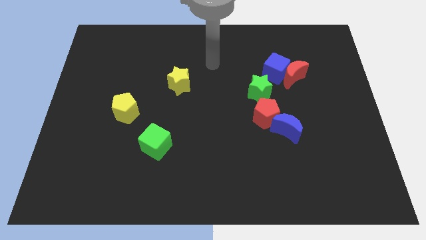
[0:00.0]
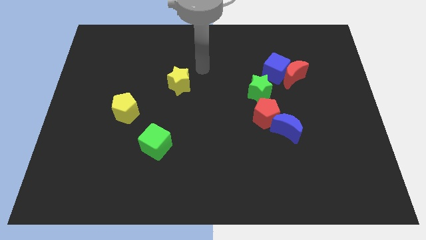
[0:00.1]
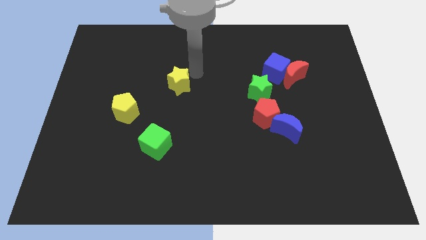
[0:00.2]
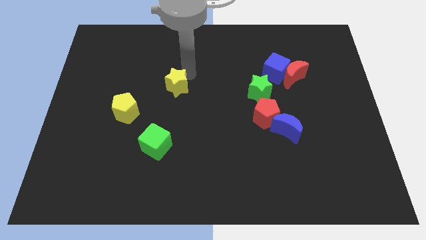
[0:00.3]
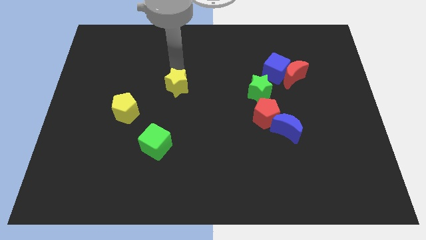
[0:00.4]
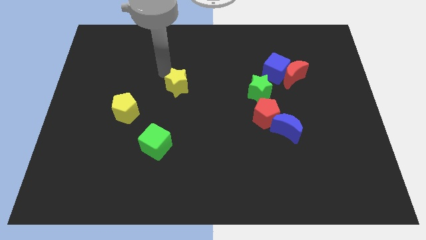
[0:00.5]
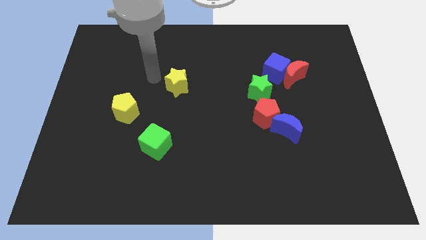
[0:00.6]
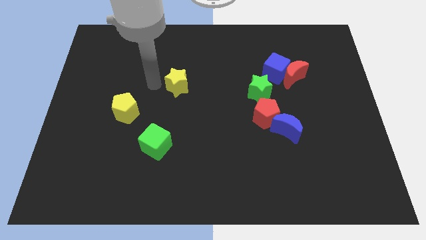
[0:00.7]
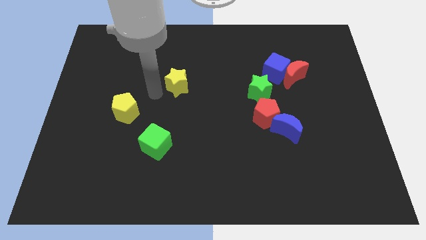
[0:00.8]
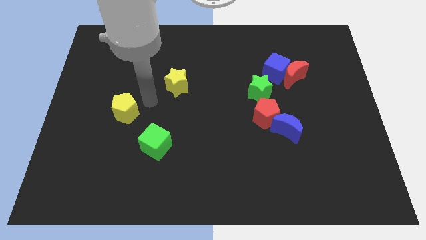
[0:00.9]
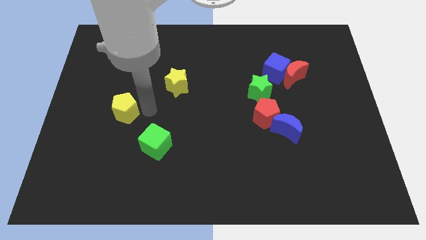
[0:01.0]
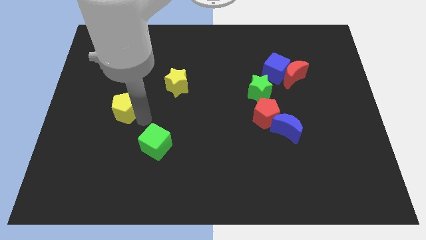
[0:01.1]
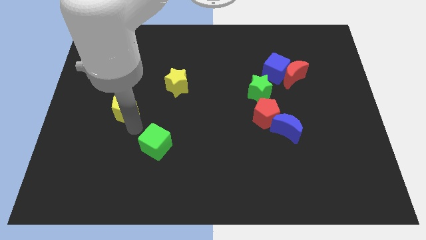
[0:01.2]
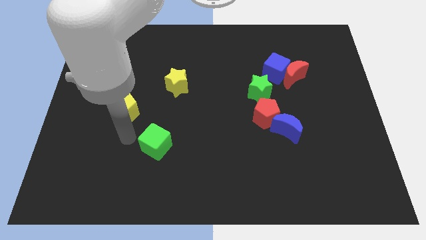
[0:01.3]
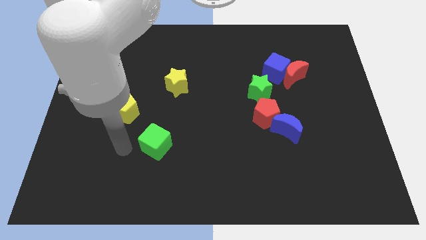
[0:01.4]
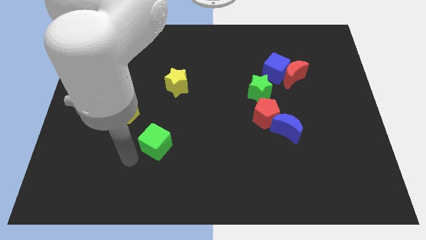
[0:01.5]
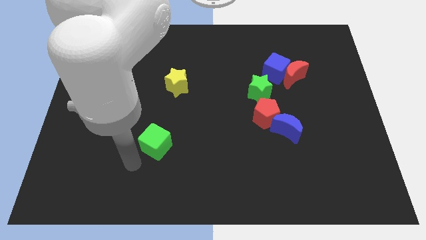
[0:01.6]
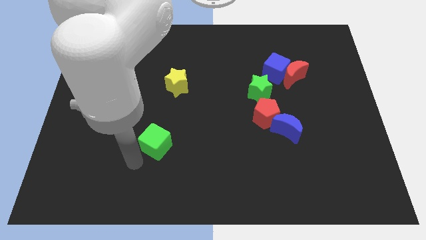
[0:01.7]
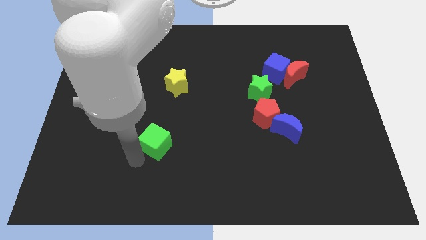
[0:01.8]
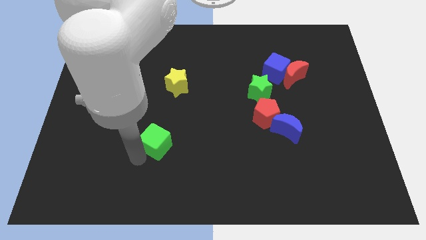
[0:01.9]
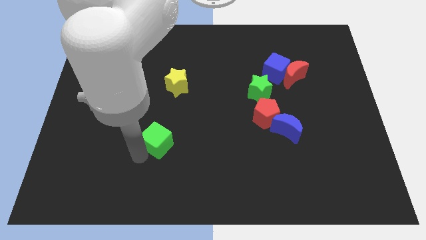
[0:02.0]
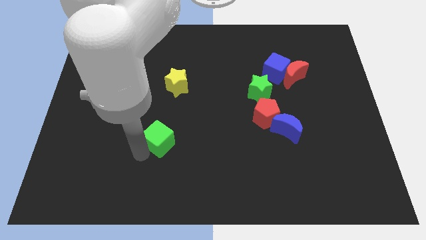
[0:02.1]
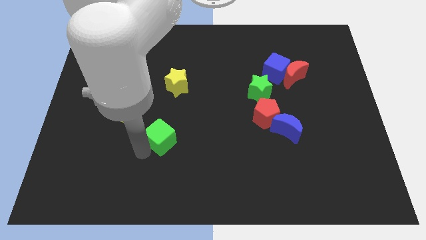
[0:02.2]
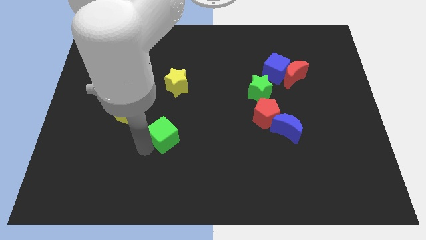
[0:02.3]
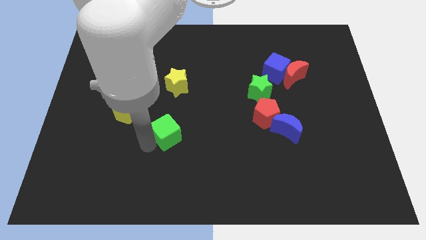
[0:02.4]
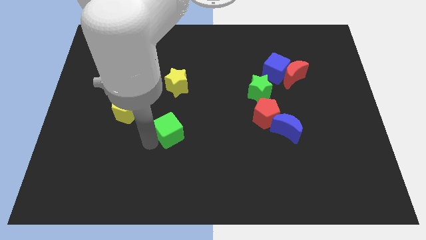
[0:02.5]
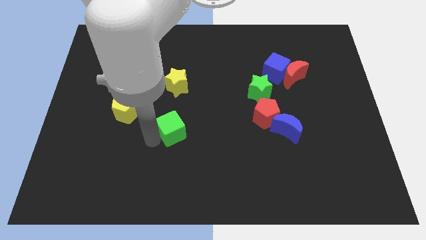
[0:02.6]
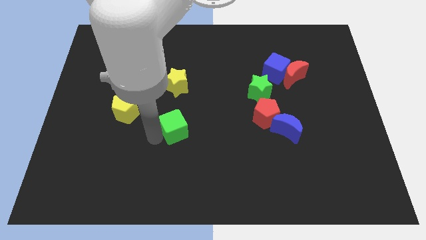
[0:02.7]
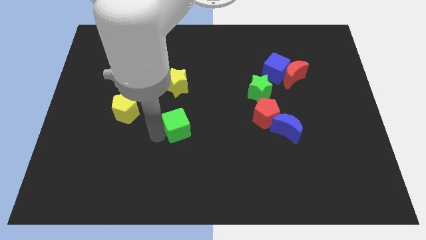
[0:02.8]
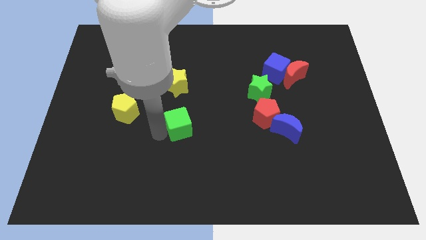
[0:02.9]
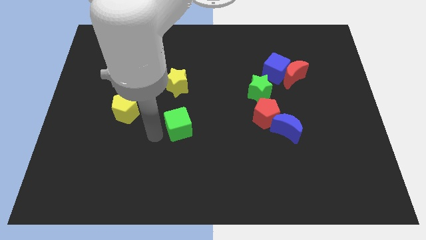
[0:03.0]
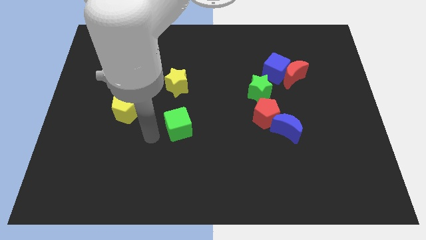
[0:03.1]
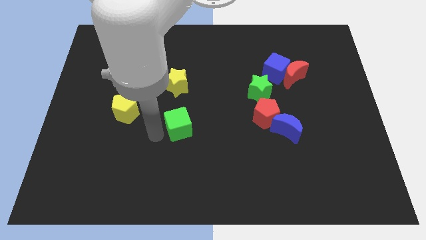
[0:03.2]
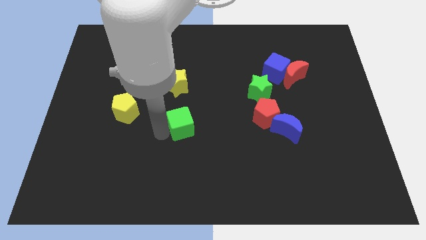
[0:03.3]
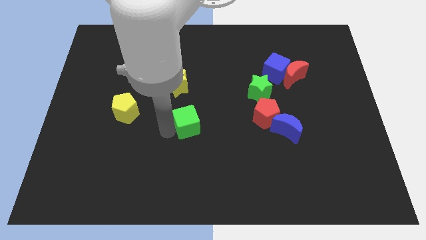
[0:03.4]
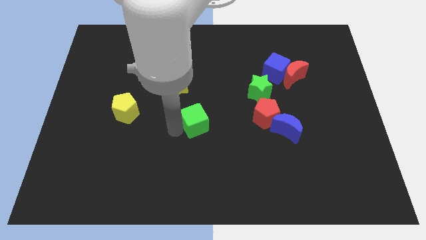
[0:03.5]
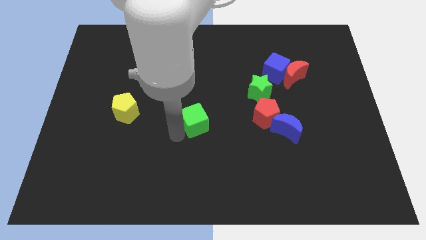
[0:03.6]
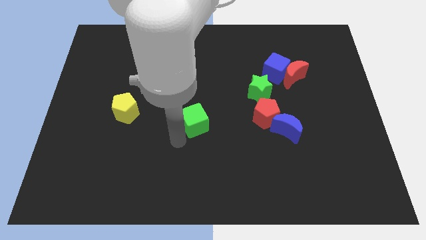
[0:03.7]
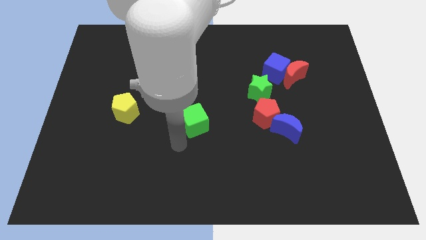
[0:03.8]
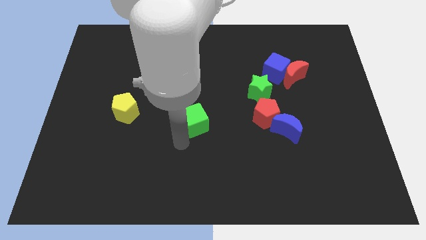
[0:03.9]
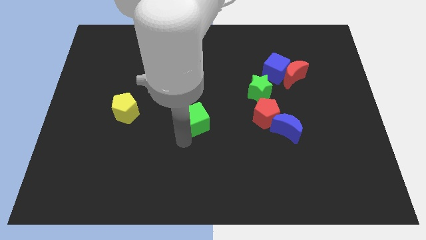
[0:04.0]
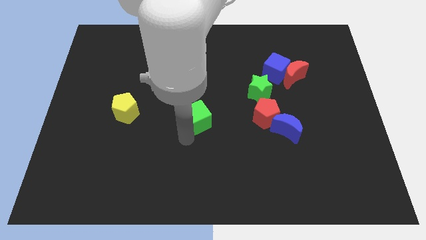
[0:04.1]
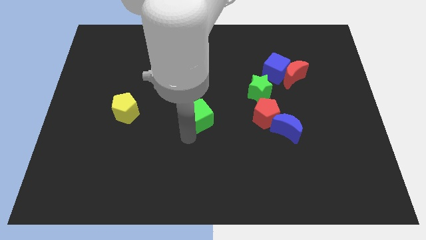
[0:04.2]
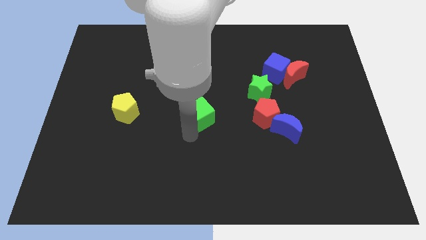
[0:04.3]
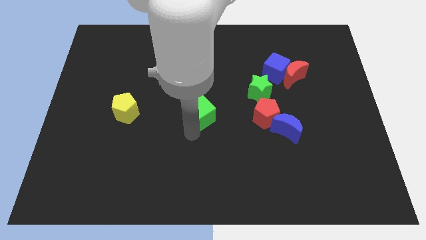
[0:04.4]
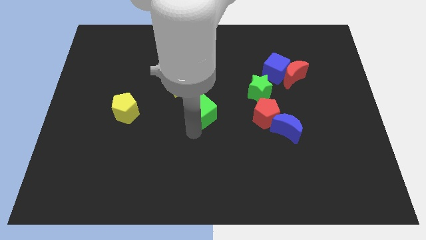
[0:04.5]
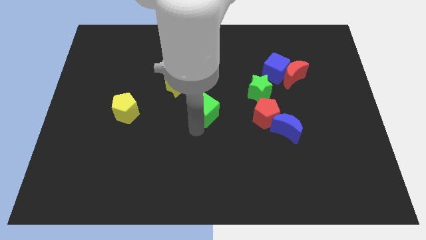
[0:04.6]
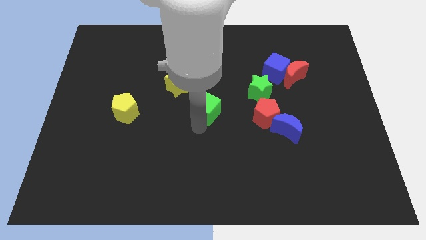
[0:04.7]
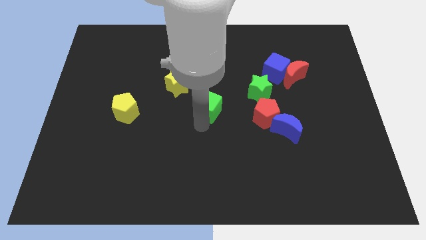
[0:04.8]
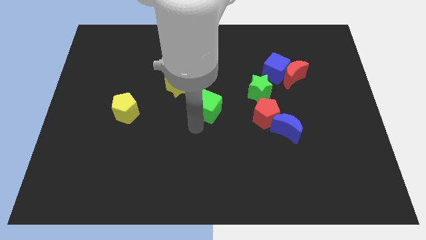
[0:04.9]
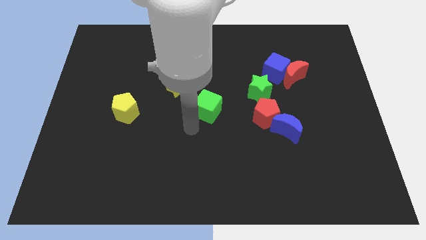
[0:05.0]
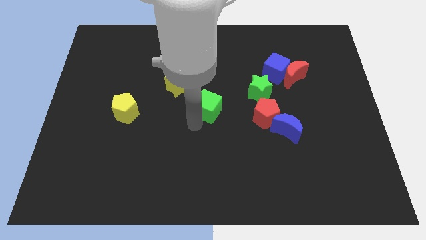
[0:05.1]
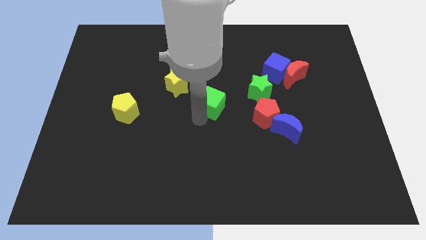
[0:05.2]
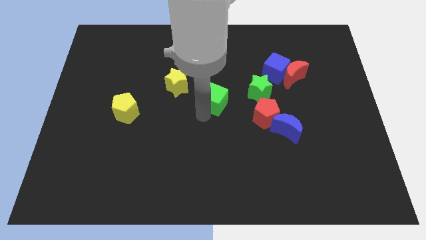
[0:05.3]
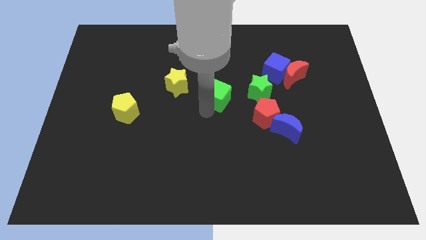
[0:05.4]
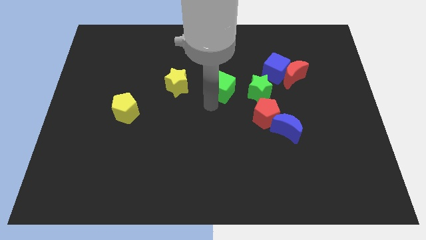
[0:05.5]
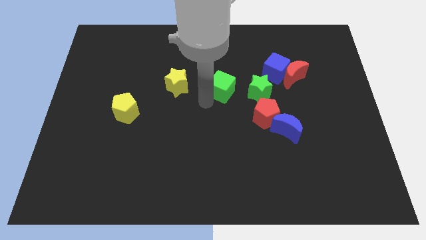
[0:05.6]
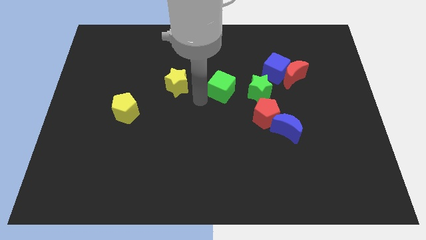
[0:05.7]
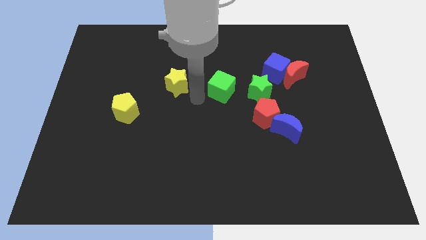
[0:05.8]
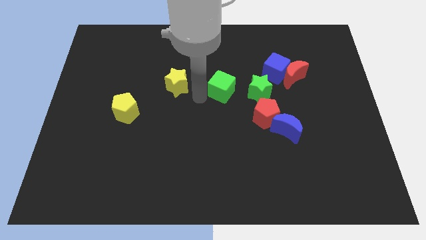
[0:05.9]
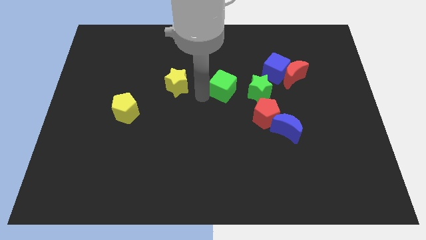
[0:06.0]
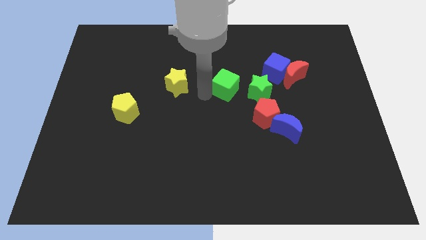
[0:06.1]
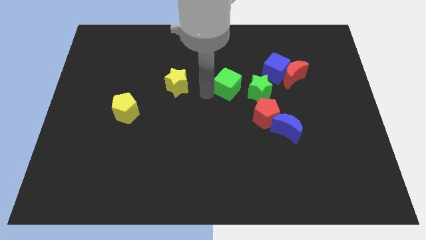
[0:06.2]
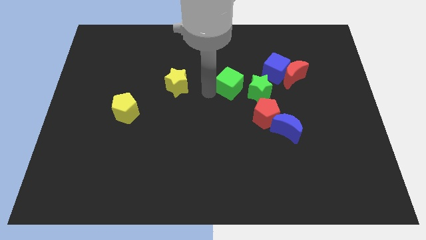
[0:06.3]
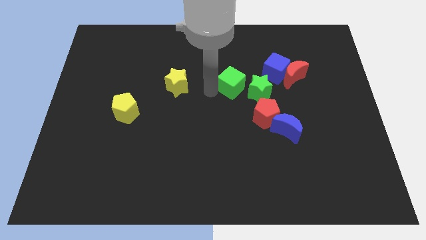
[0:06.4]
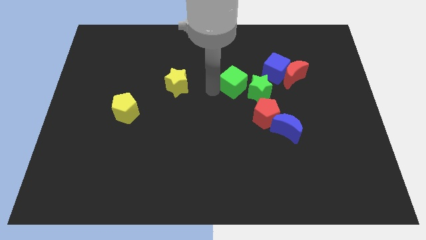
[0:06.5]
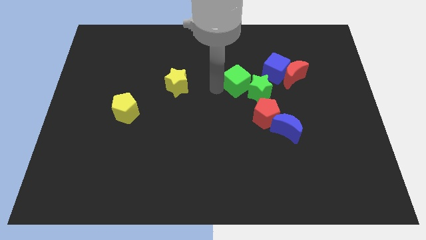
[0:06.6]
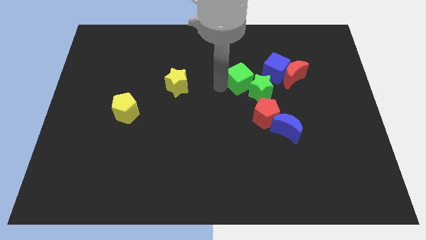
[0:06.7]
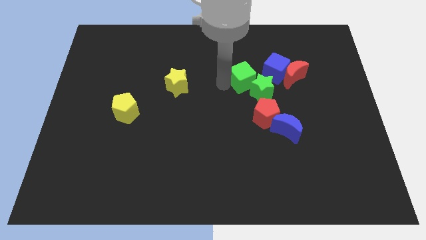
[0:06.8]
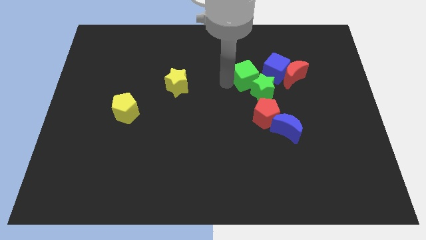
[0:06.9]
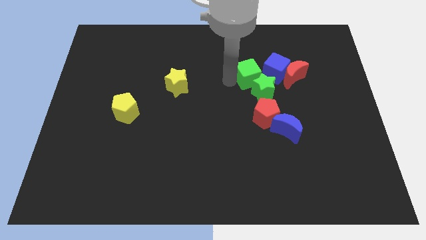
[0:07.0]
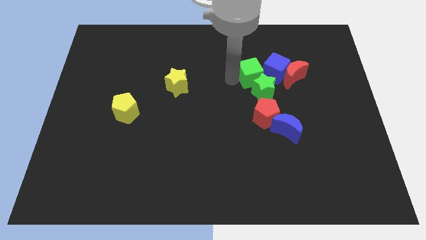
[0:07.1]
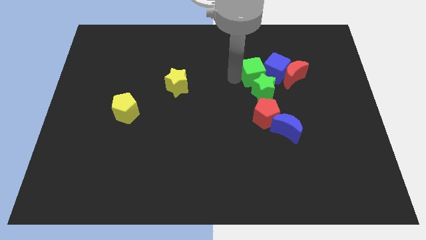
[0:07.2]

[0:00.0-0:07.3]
push the green cube to the blue cube

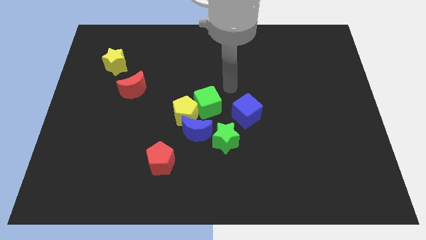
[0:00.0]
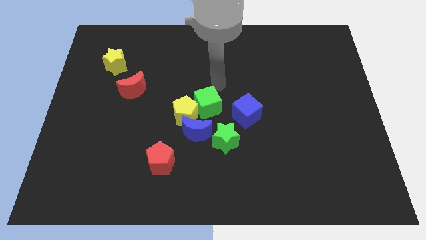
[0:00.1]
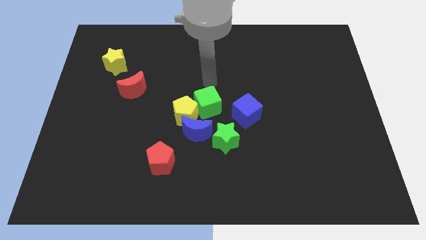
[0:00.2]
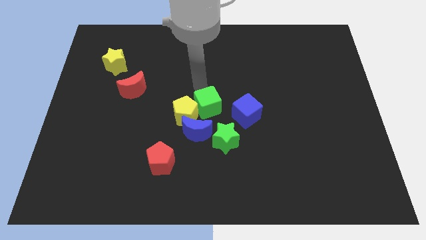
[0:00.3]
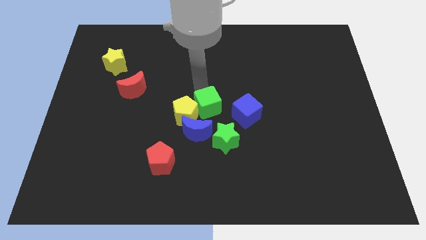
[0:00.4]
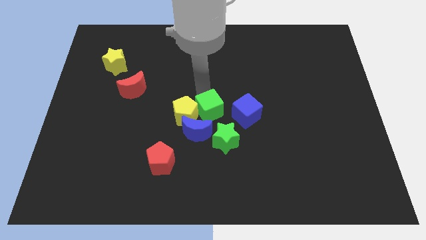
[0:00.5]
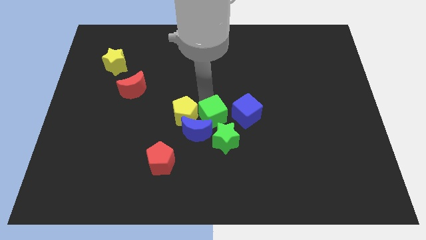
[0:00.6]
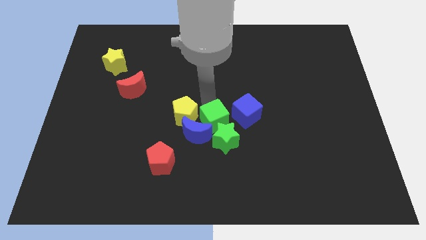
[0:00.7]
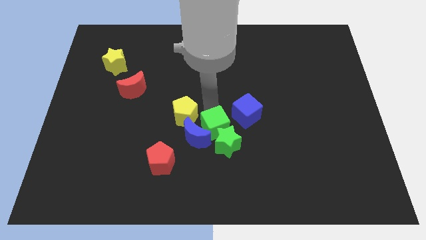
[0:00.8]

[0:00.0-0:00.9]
push the green cube next to the green star
